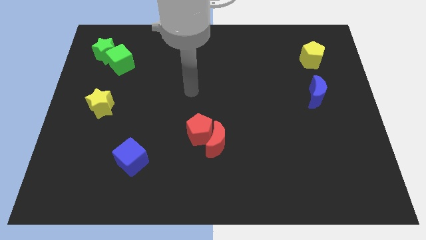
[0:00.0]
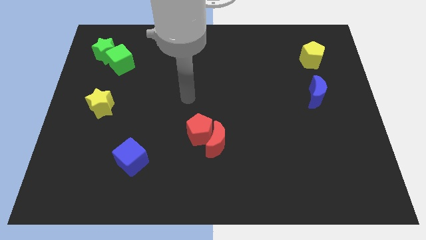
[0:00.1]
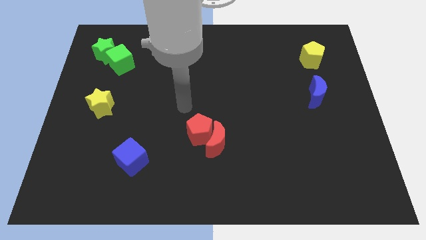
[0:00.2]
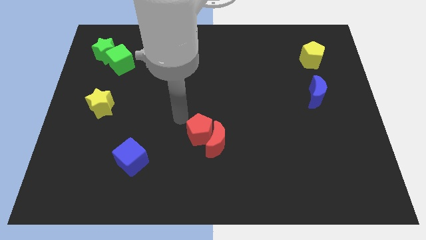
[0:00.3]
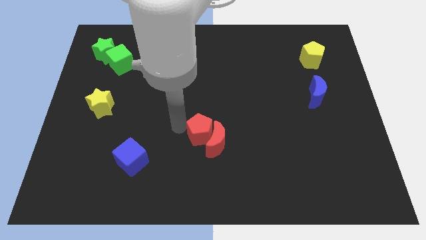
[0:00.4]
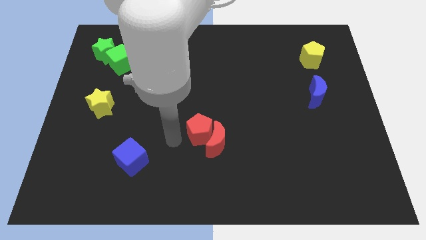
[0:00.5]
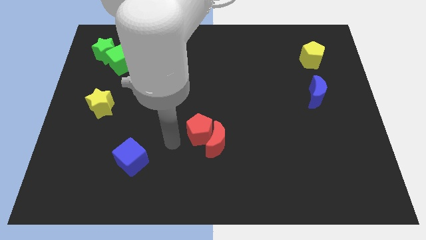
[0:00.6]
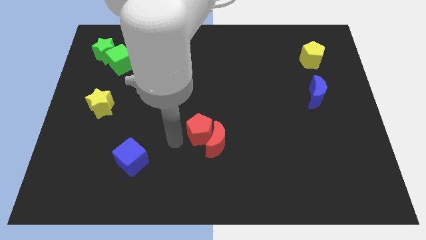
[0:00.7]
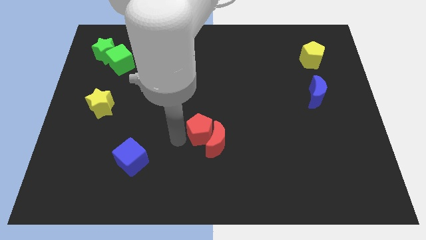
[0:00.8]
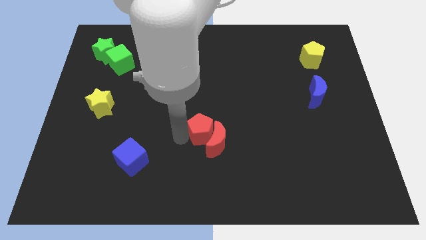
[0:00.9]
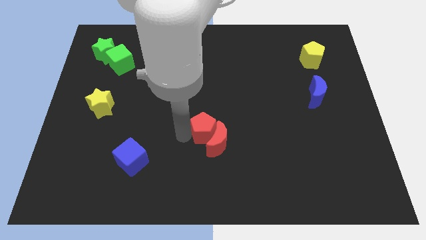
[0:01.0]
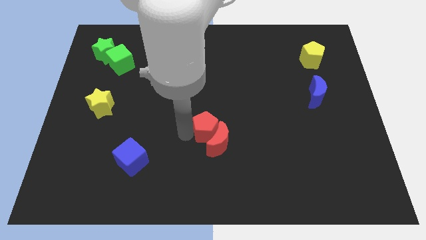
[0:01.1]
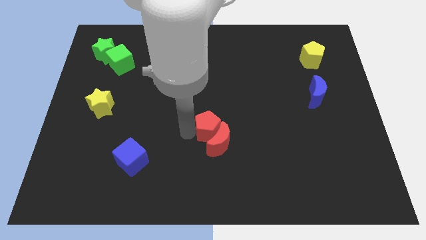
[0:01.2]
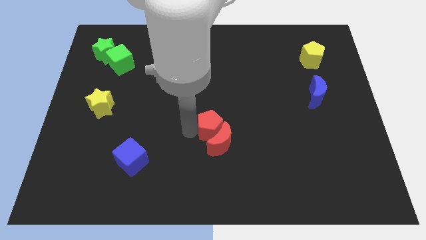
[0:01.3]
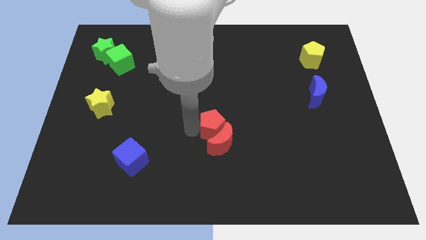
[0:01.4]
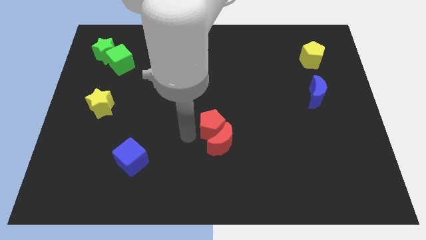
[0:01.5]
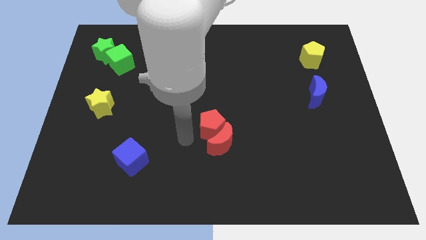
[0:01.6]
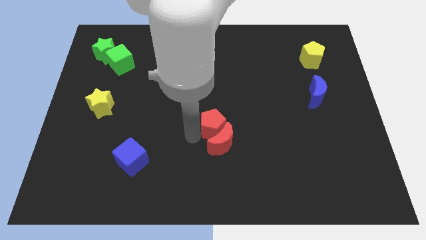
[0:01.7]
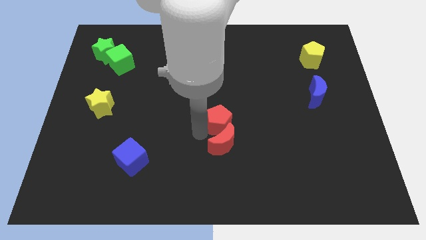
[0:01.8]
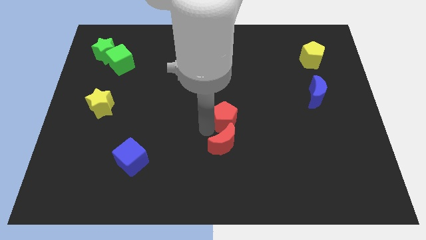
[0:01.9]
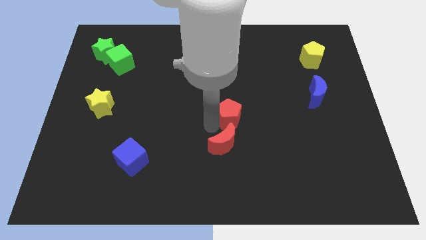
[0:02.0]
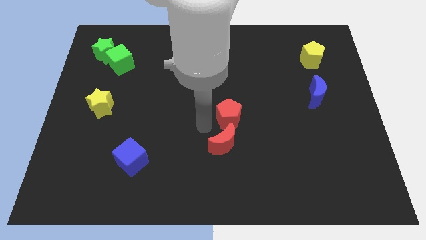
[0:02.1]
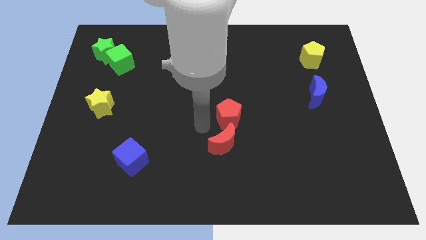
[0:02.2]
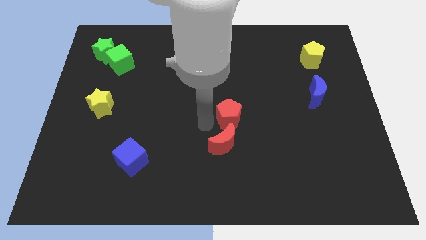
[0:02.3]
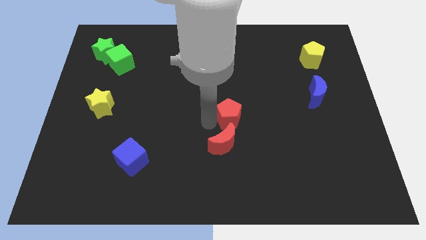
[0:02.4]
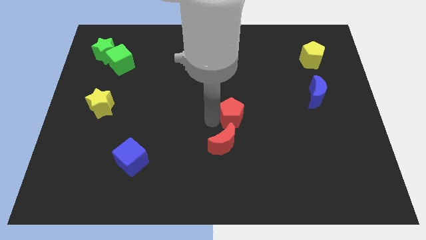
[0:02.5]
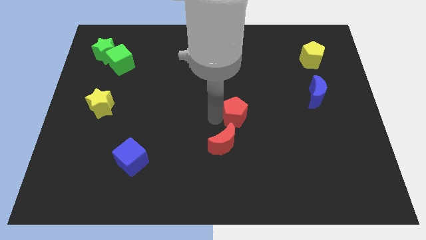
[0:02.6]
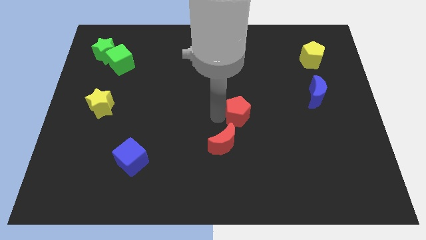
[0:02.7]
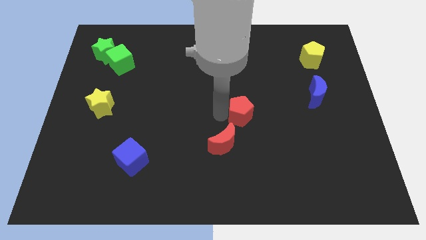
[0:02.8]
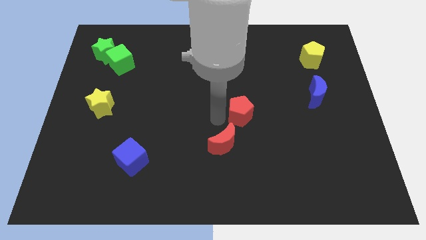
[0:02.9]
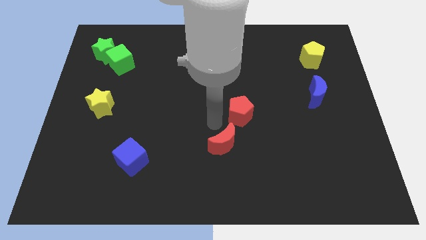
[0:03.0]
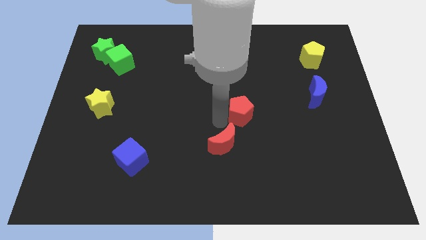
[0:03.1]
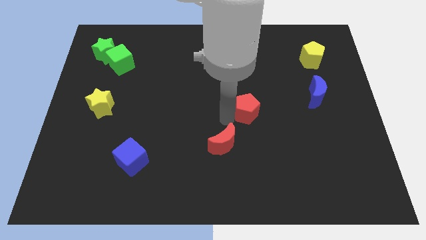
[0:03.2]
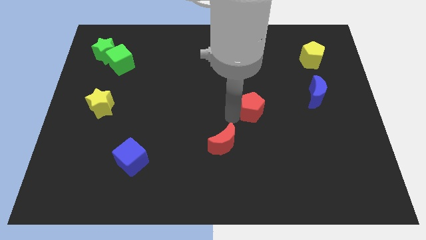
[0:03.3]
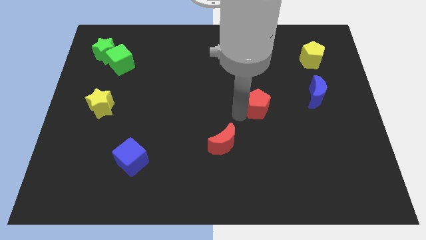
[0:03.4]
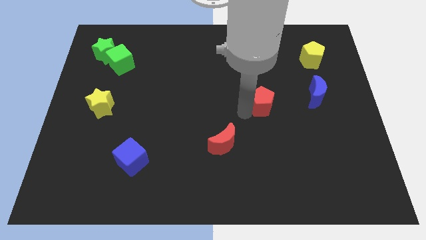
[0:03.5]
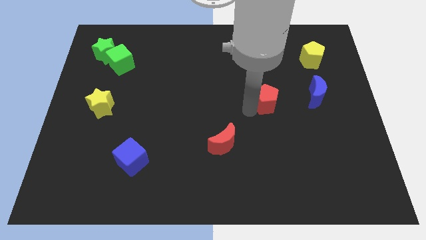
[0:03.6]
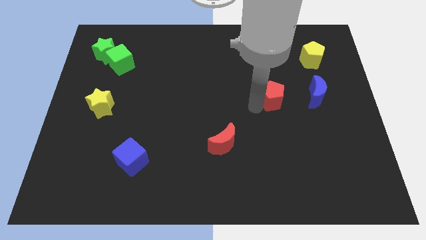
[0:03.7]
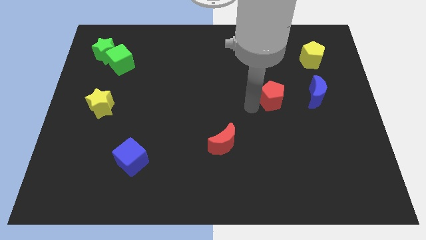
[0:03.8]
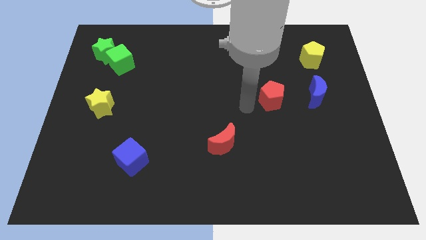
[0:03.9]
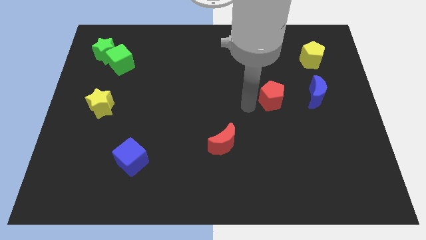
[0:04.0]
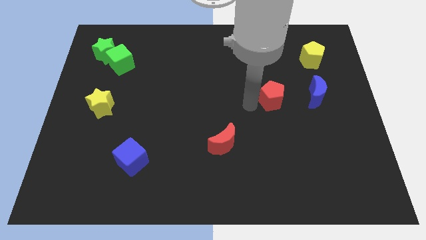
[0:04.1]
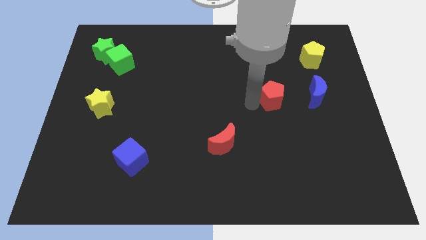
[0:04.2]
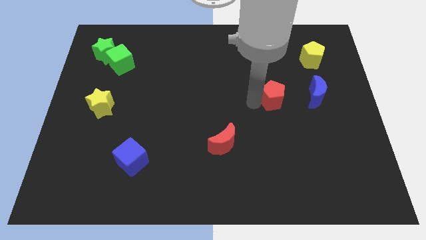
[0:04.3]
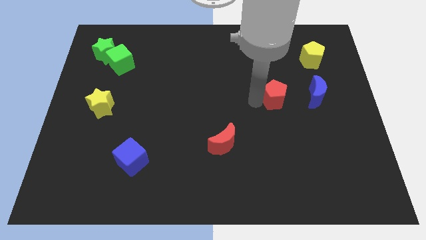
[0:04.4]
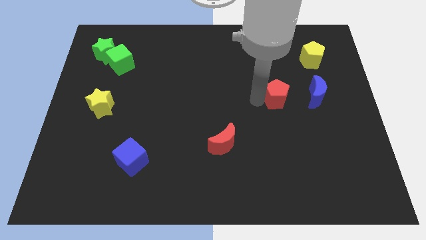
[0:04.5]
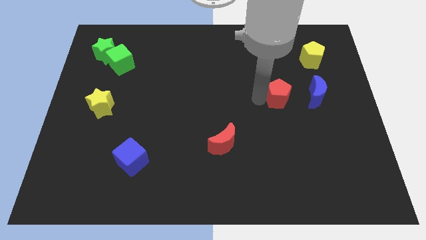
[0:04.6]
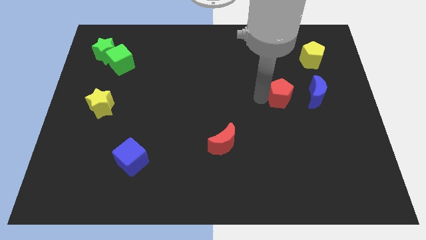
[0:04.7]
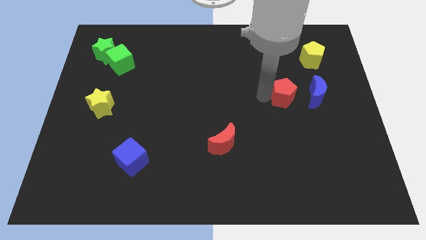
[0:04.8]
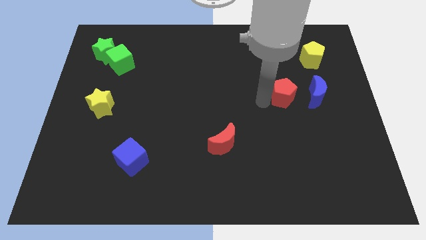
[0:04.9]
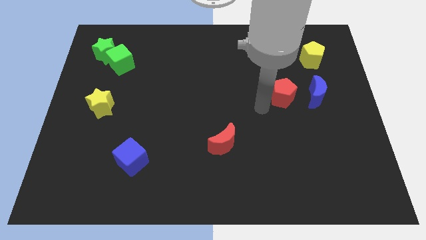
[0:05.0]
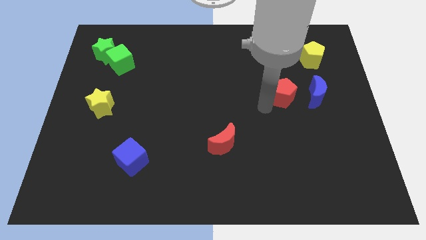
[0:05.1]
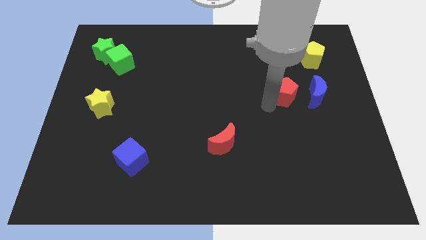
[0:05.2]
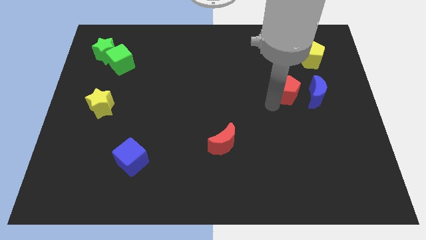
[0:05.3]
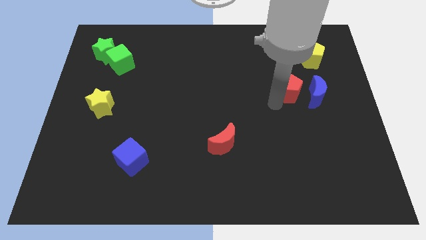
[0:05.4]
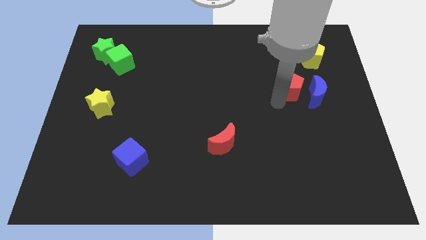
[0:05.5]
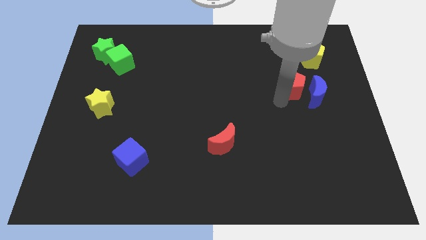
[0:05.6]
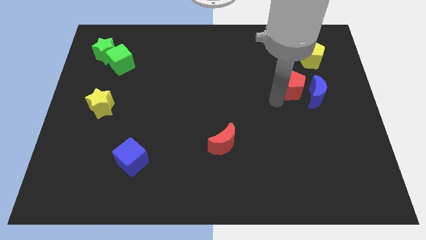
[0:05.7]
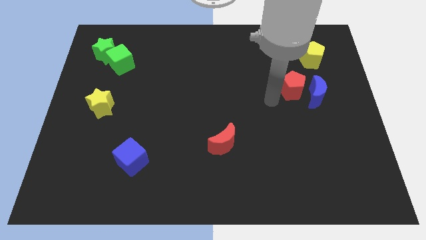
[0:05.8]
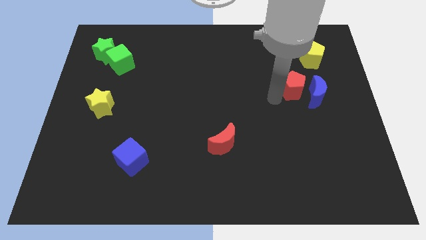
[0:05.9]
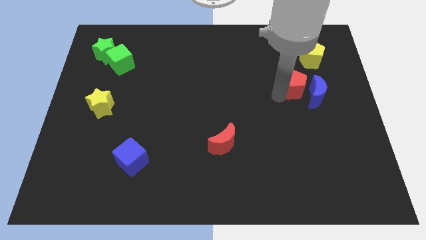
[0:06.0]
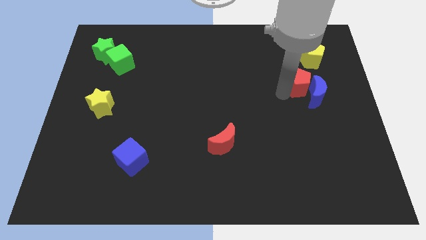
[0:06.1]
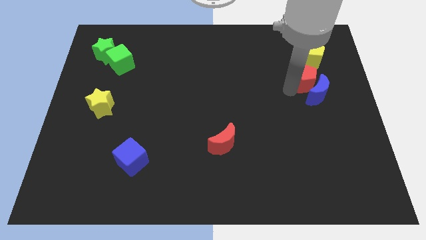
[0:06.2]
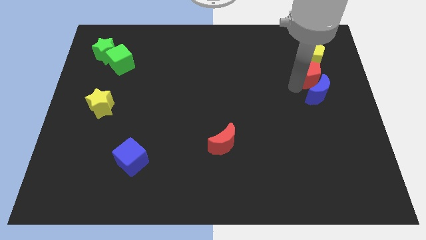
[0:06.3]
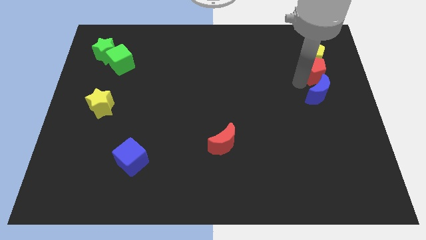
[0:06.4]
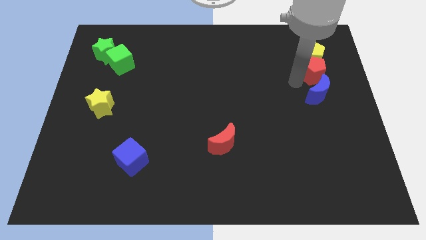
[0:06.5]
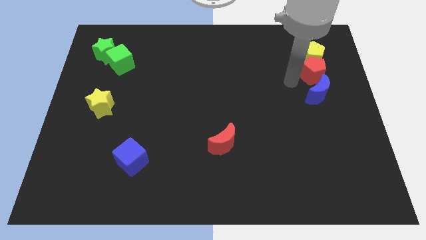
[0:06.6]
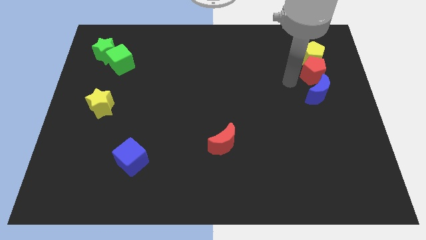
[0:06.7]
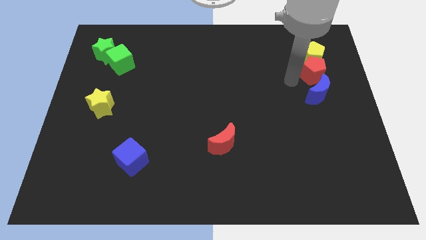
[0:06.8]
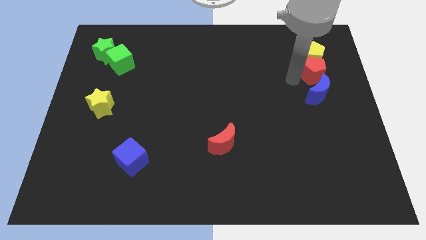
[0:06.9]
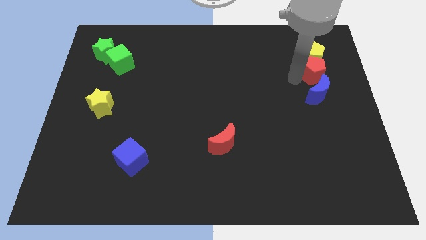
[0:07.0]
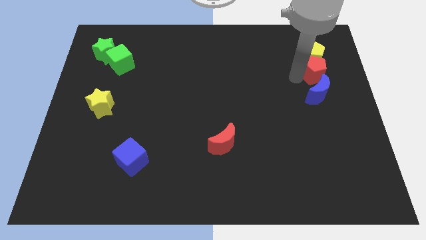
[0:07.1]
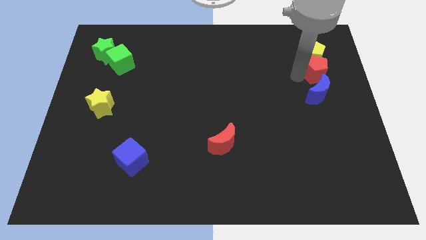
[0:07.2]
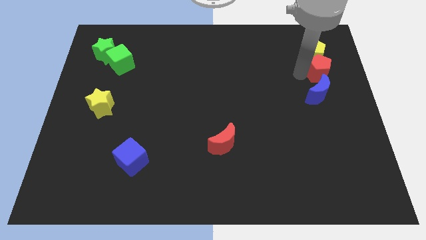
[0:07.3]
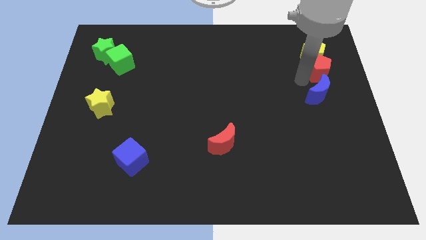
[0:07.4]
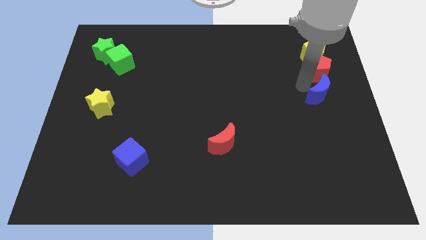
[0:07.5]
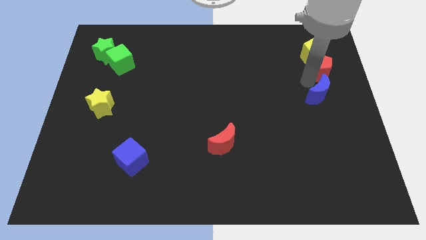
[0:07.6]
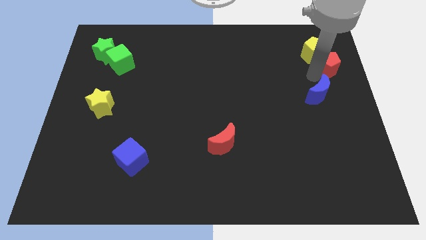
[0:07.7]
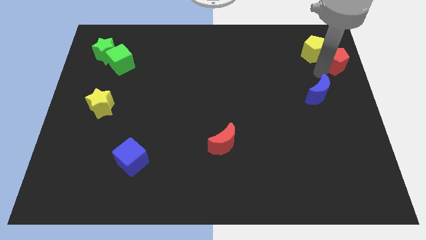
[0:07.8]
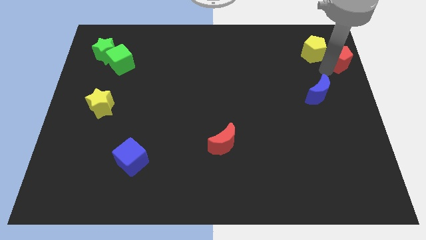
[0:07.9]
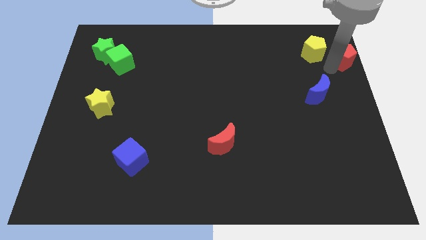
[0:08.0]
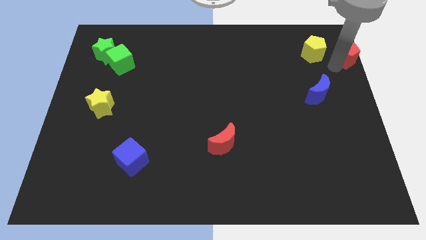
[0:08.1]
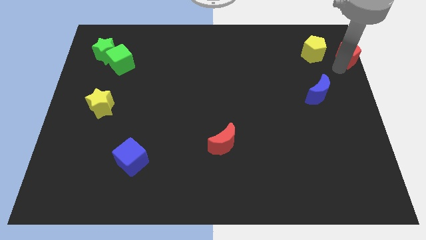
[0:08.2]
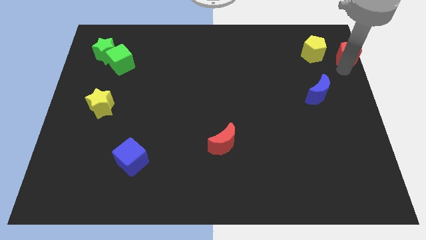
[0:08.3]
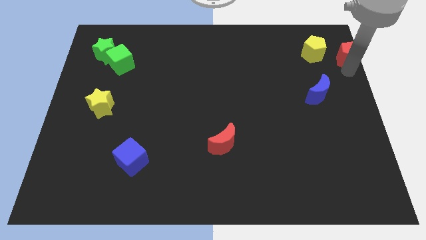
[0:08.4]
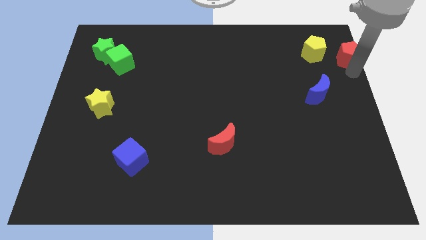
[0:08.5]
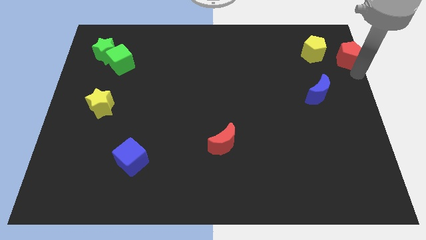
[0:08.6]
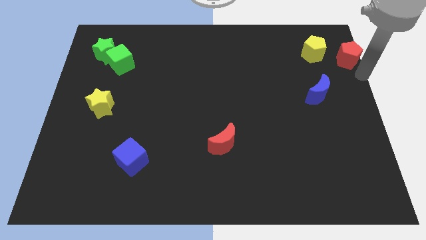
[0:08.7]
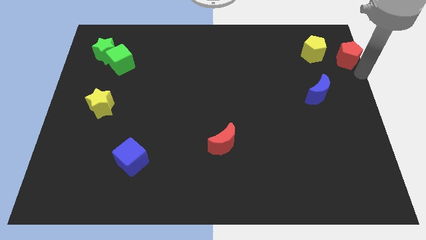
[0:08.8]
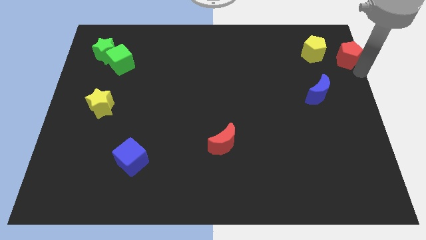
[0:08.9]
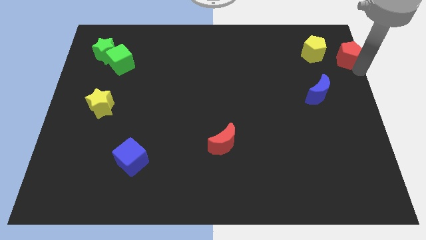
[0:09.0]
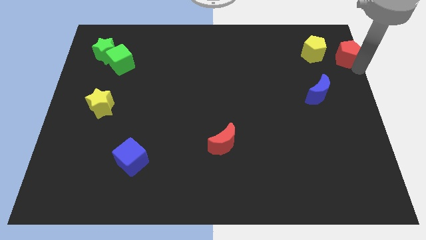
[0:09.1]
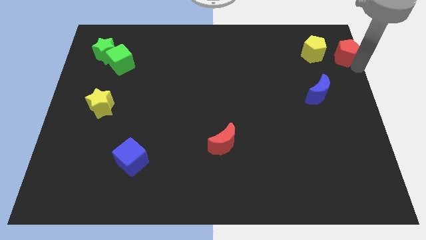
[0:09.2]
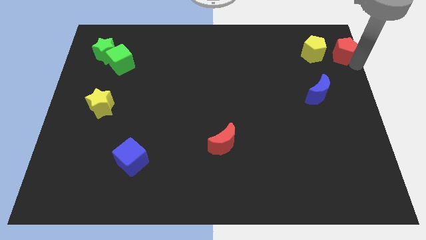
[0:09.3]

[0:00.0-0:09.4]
move the red pentagon to the top right corner
